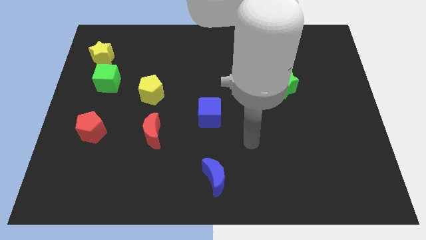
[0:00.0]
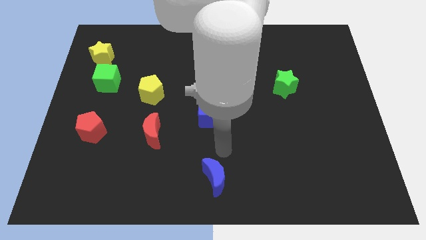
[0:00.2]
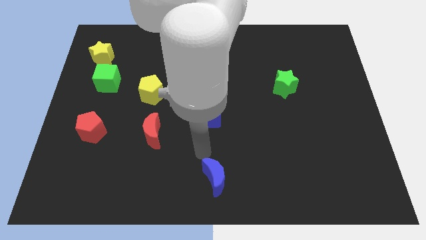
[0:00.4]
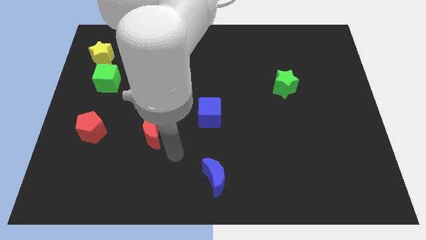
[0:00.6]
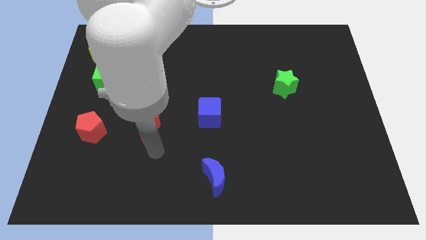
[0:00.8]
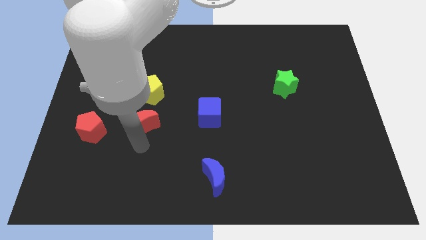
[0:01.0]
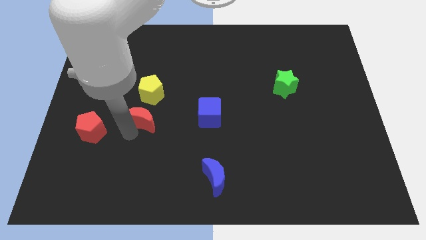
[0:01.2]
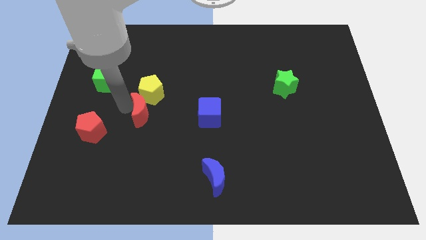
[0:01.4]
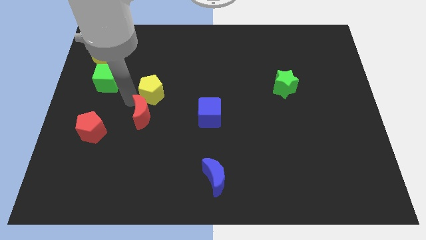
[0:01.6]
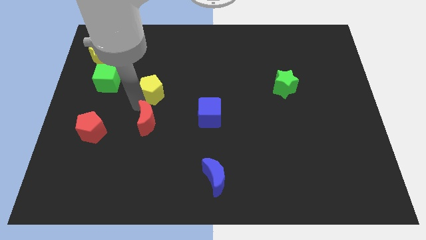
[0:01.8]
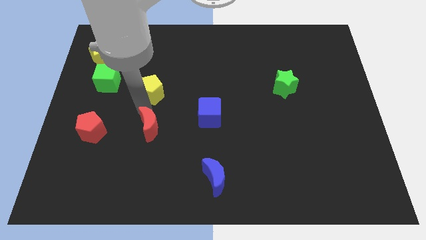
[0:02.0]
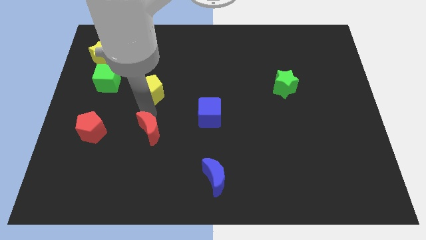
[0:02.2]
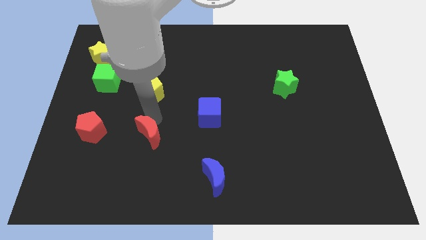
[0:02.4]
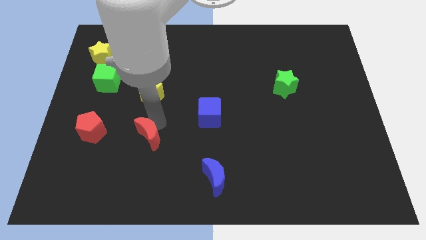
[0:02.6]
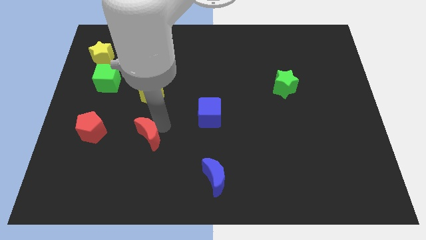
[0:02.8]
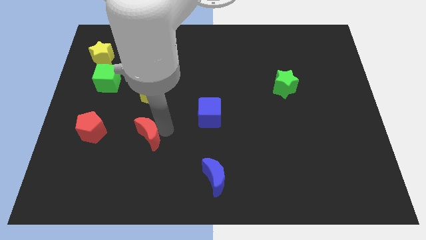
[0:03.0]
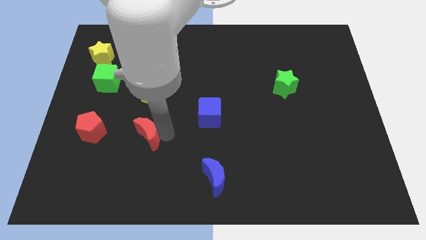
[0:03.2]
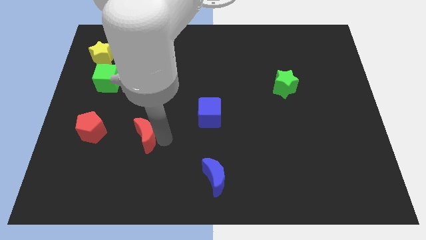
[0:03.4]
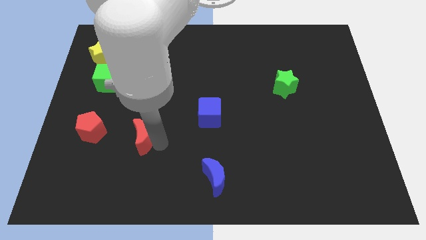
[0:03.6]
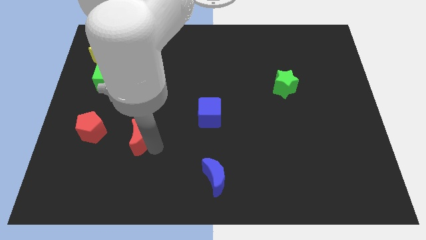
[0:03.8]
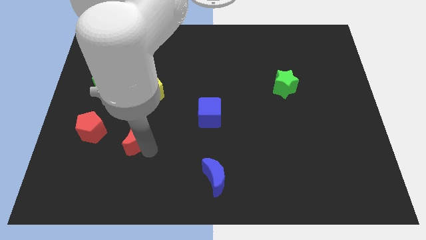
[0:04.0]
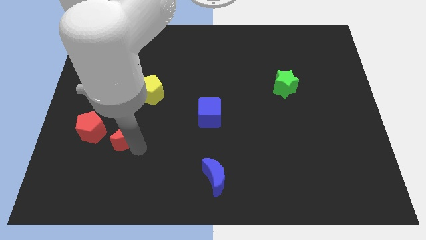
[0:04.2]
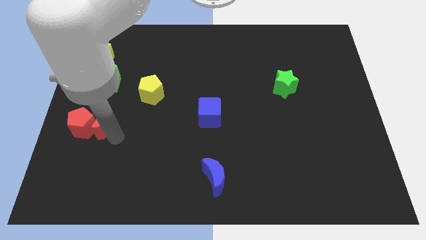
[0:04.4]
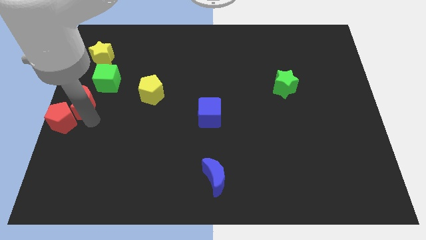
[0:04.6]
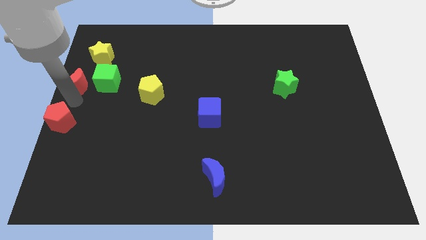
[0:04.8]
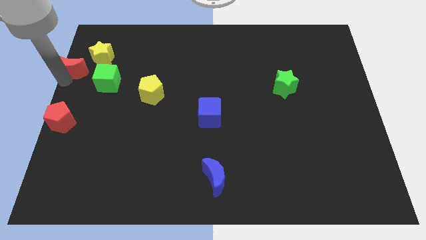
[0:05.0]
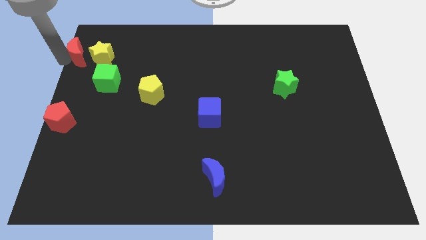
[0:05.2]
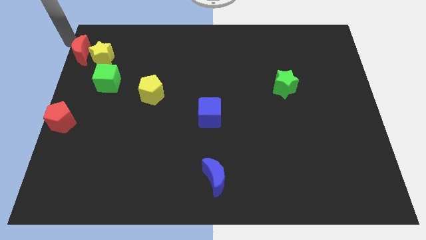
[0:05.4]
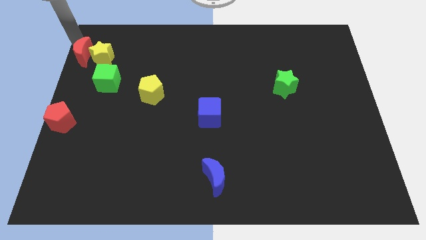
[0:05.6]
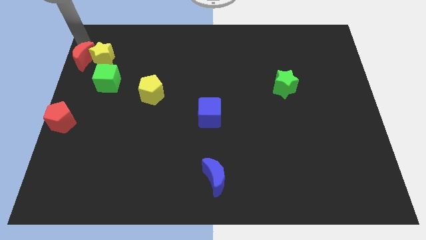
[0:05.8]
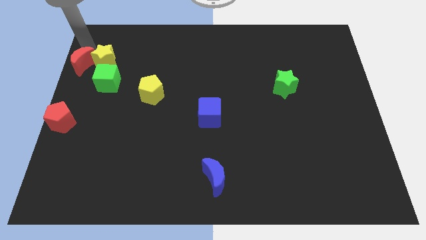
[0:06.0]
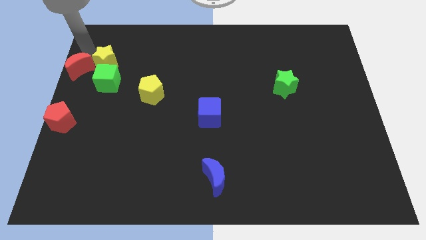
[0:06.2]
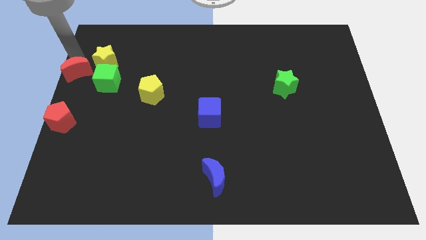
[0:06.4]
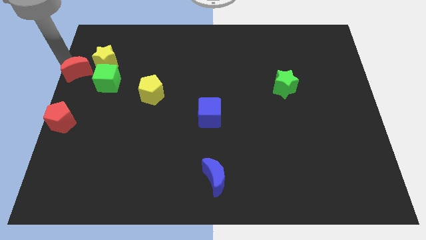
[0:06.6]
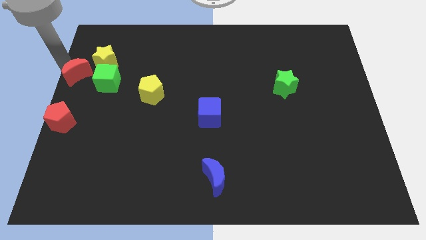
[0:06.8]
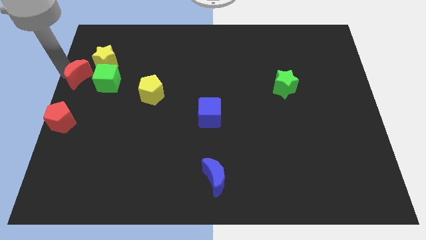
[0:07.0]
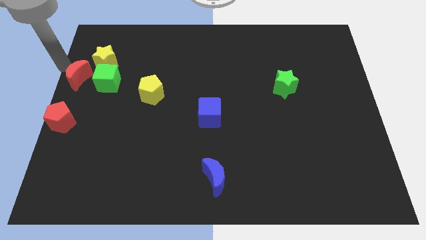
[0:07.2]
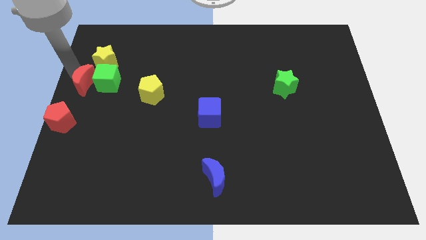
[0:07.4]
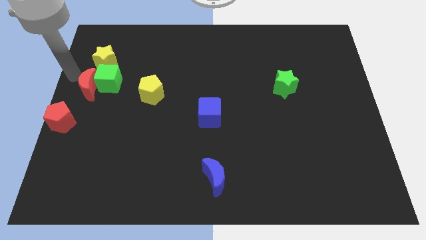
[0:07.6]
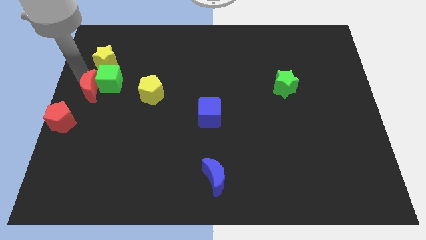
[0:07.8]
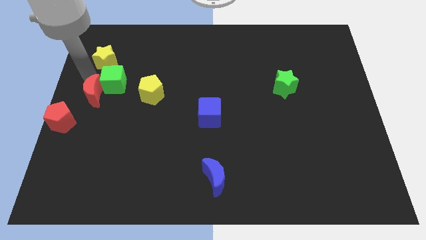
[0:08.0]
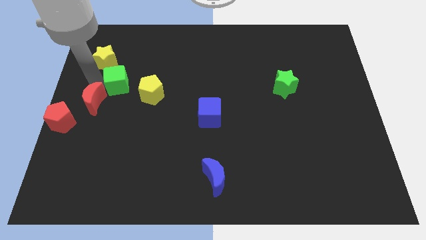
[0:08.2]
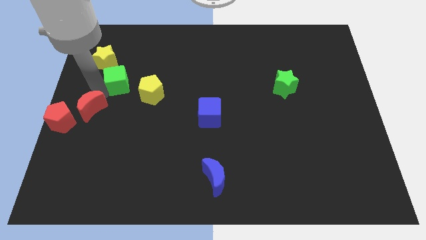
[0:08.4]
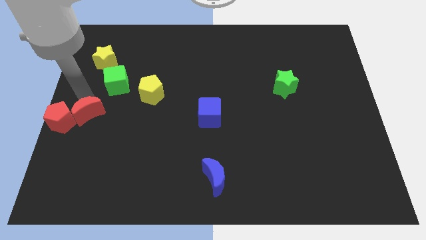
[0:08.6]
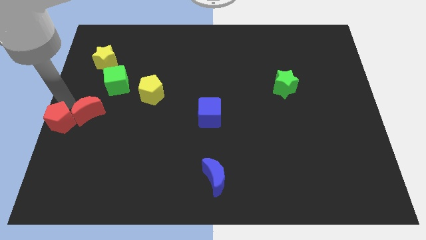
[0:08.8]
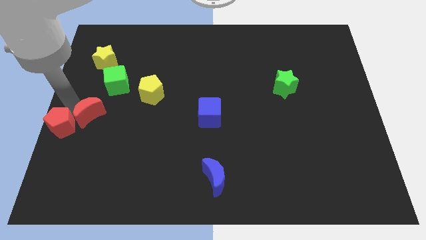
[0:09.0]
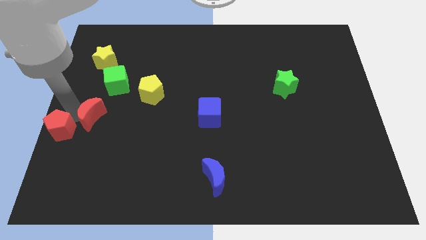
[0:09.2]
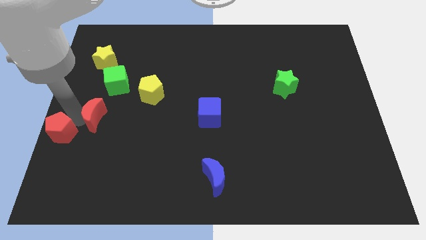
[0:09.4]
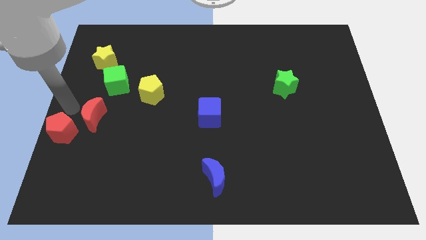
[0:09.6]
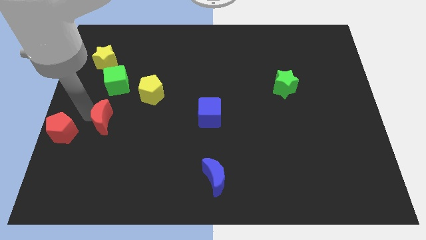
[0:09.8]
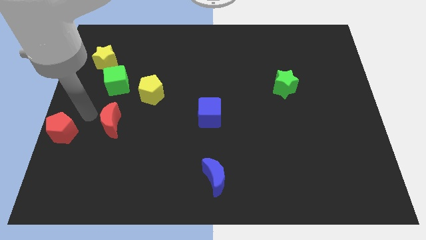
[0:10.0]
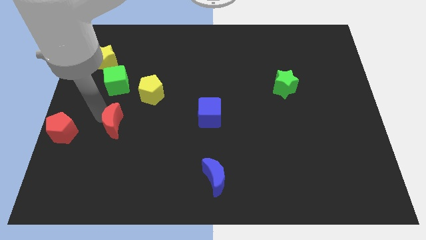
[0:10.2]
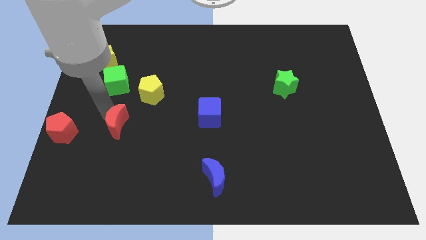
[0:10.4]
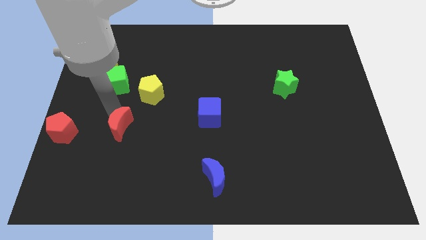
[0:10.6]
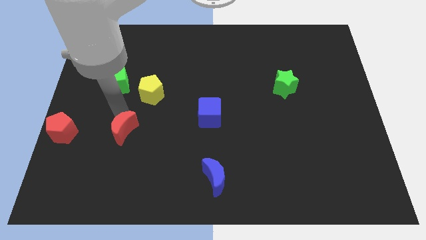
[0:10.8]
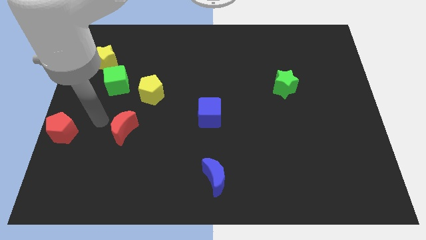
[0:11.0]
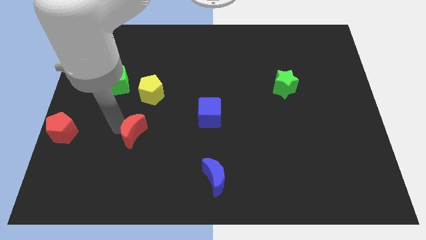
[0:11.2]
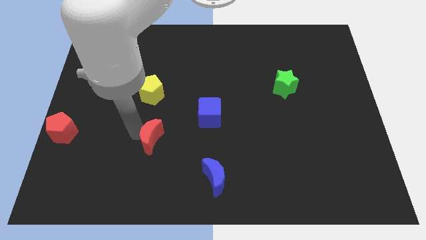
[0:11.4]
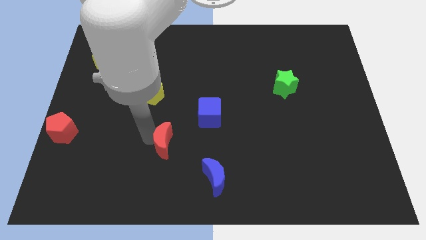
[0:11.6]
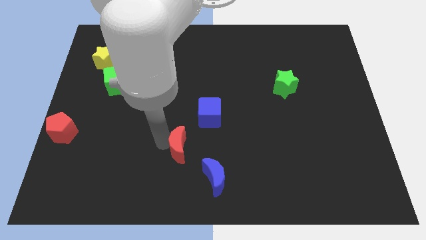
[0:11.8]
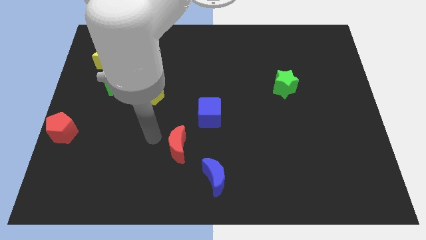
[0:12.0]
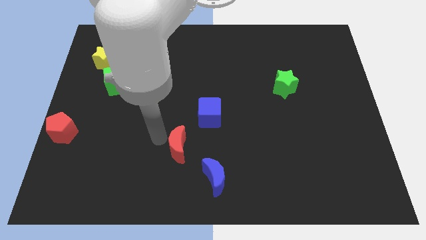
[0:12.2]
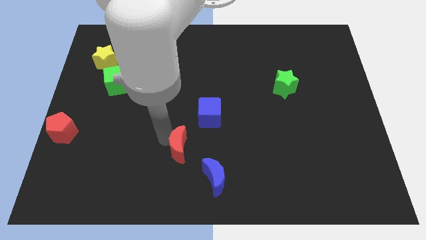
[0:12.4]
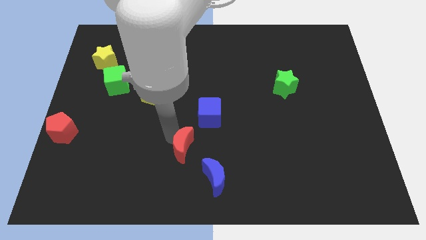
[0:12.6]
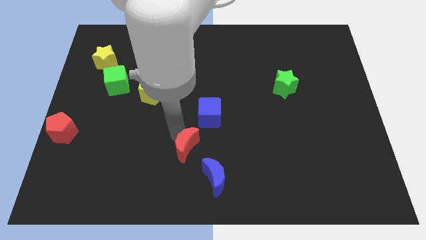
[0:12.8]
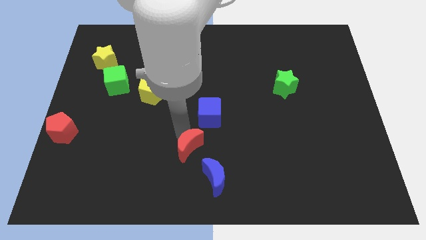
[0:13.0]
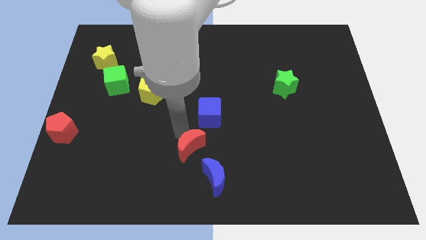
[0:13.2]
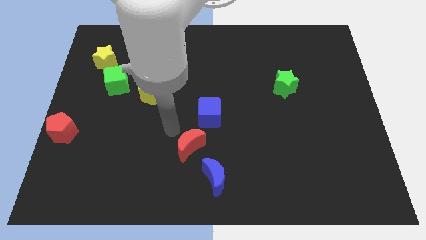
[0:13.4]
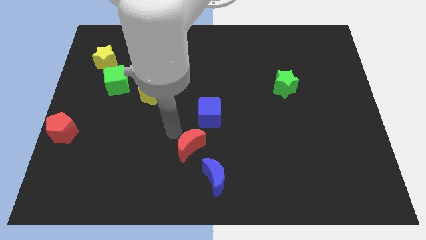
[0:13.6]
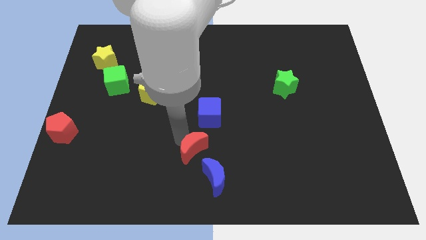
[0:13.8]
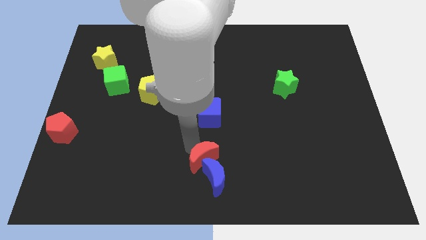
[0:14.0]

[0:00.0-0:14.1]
slide the red moon towards the blue moon
